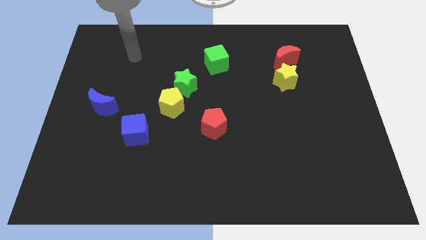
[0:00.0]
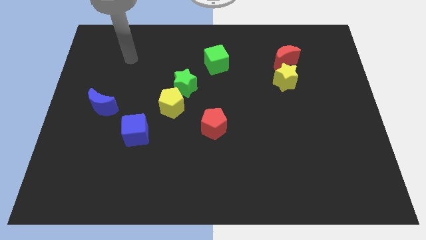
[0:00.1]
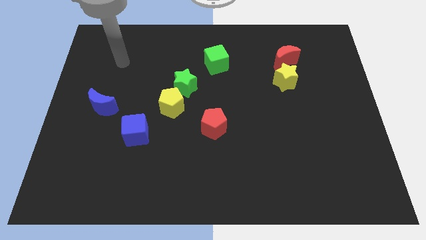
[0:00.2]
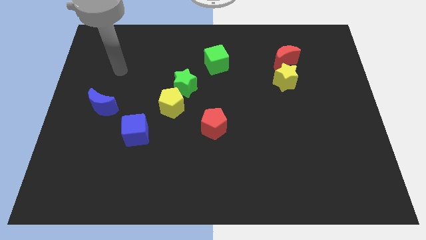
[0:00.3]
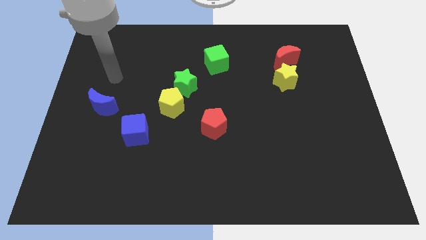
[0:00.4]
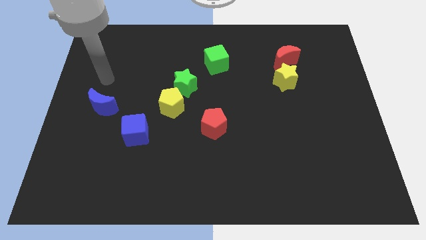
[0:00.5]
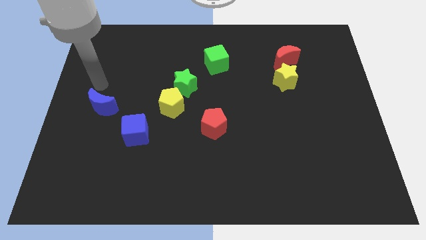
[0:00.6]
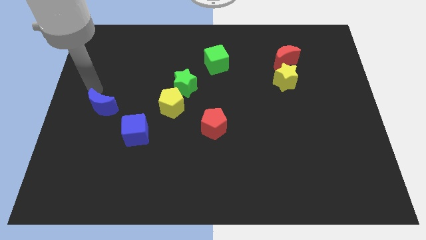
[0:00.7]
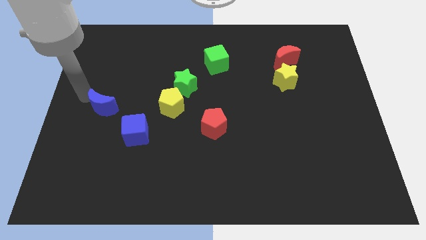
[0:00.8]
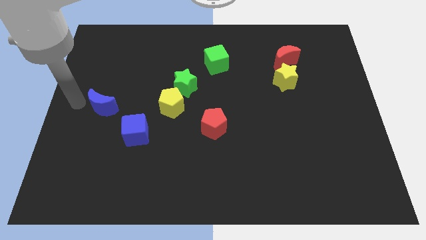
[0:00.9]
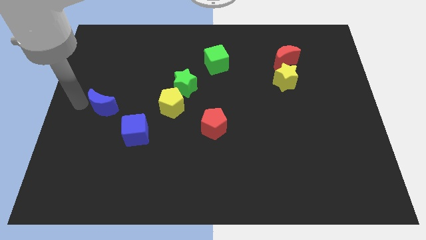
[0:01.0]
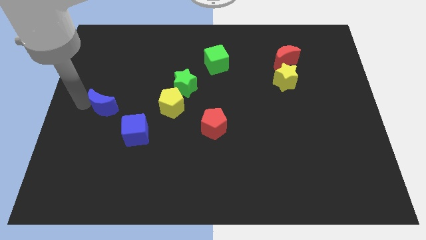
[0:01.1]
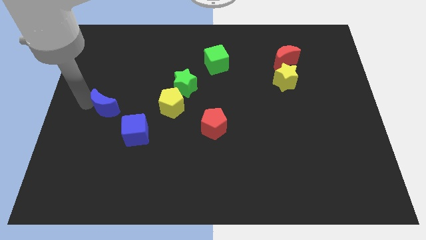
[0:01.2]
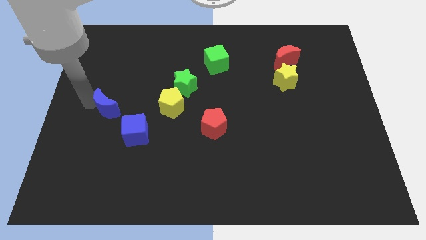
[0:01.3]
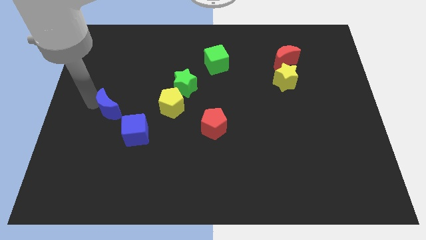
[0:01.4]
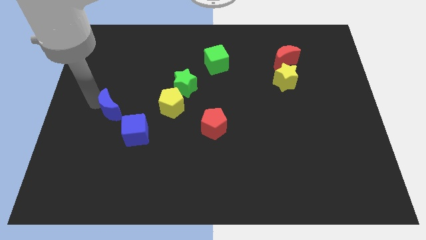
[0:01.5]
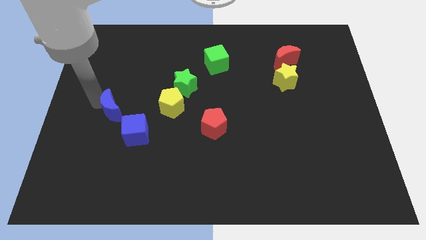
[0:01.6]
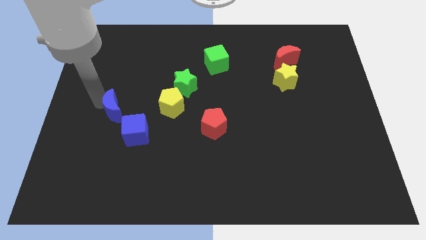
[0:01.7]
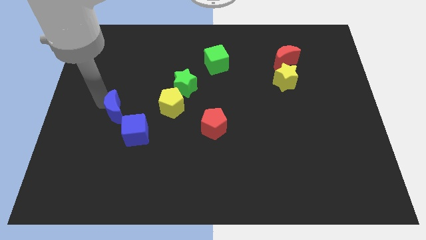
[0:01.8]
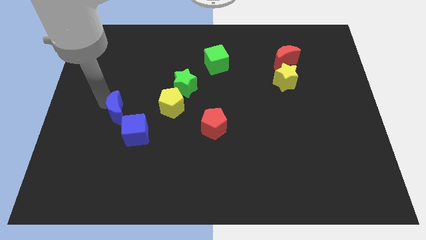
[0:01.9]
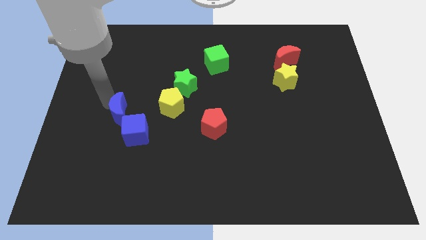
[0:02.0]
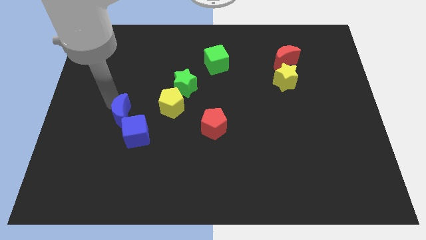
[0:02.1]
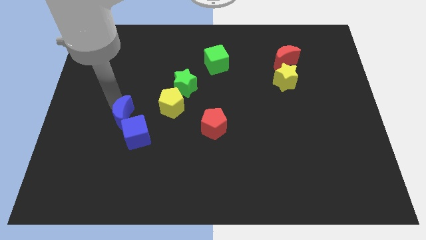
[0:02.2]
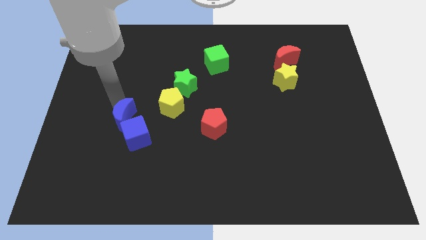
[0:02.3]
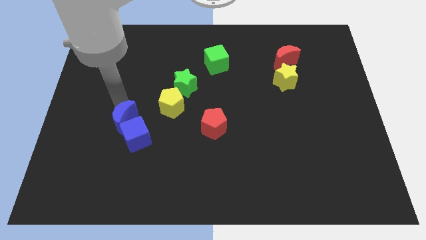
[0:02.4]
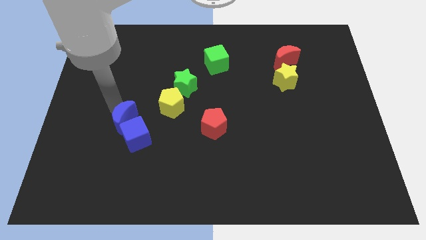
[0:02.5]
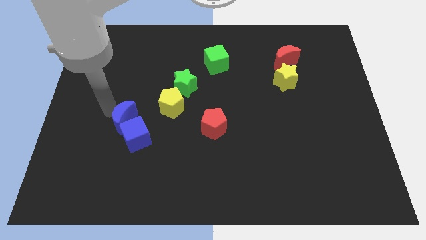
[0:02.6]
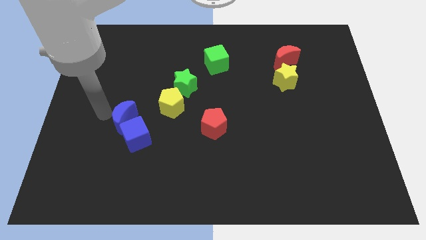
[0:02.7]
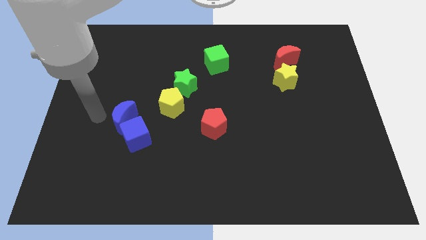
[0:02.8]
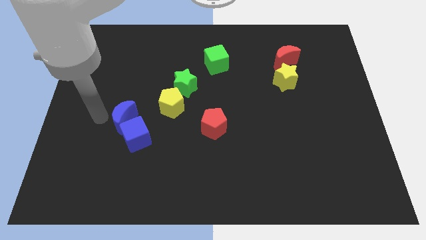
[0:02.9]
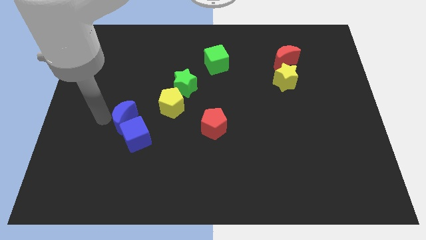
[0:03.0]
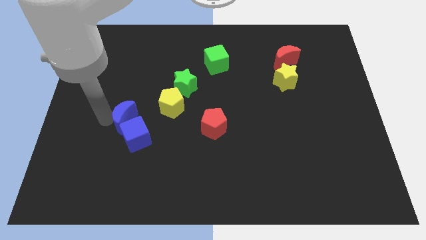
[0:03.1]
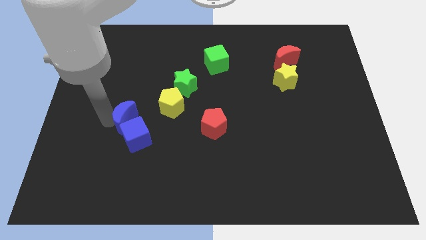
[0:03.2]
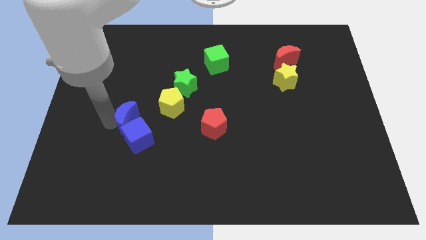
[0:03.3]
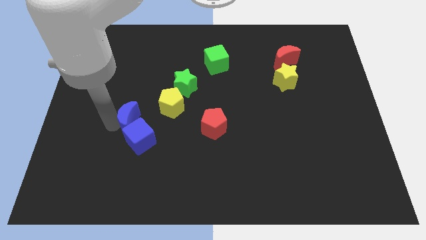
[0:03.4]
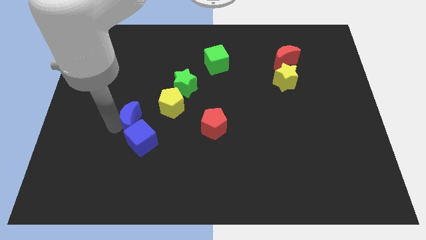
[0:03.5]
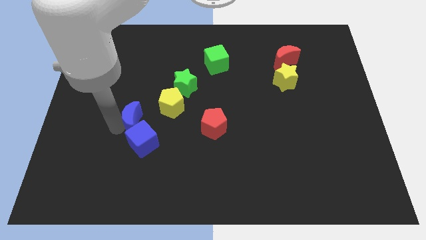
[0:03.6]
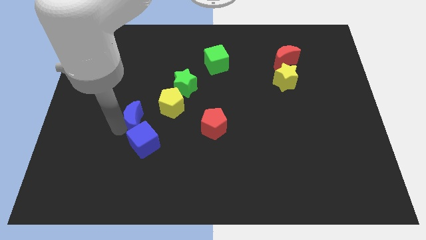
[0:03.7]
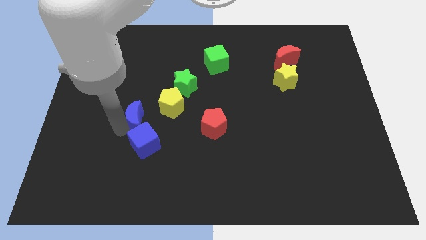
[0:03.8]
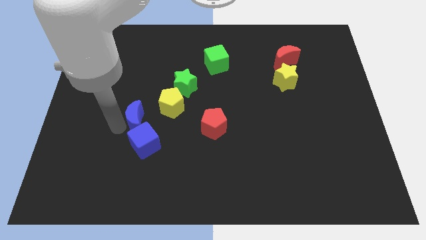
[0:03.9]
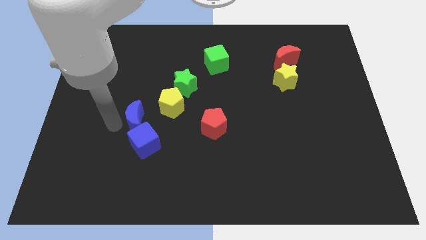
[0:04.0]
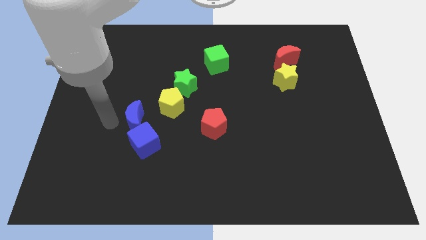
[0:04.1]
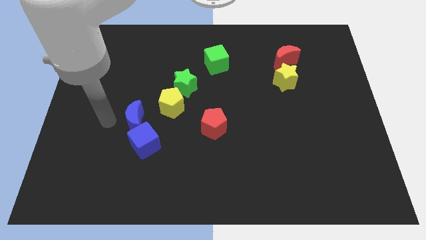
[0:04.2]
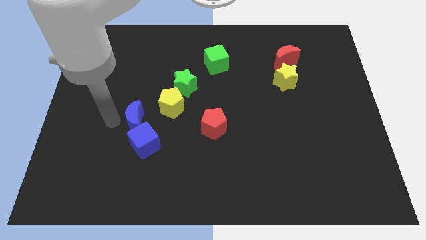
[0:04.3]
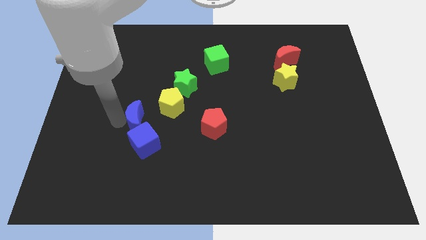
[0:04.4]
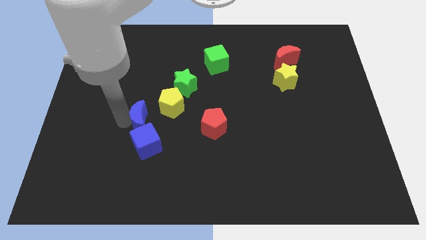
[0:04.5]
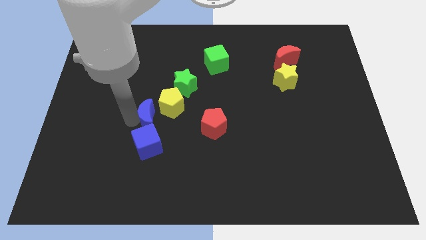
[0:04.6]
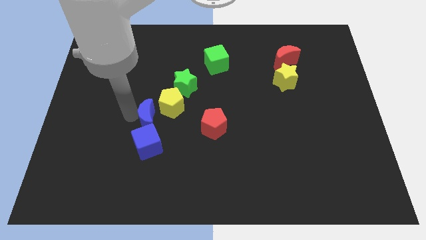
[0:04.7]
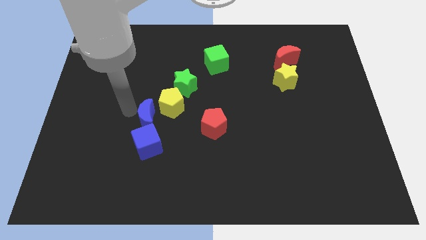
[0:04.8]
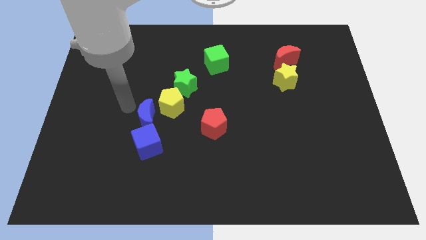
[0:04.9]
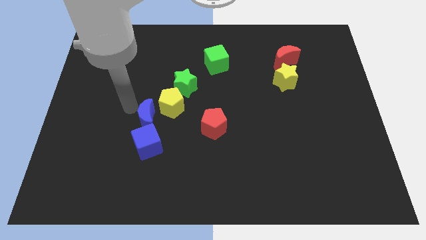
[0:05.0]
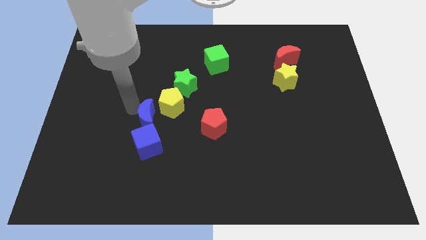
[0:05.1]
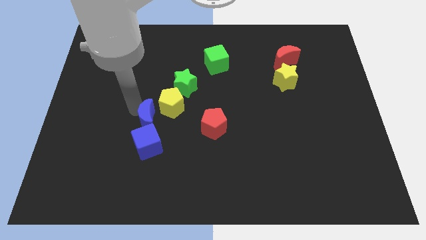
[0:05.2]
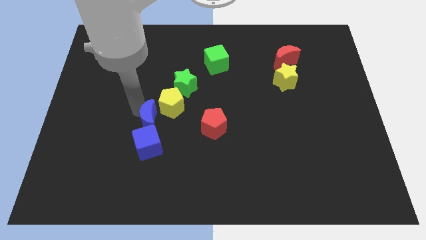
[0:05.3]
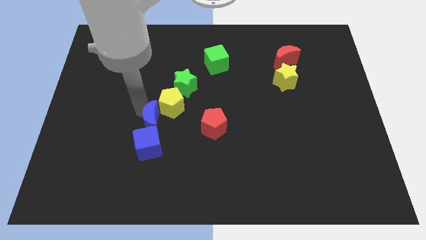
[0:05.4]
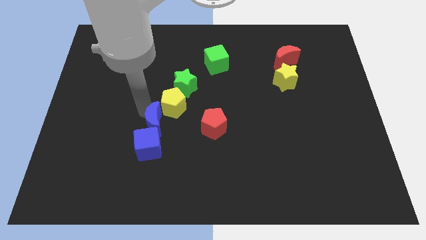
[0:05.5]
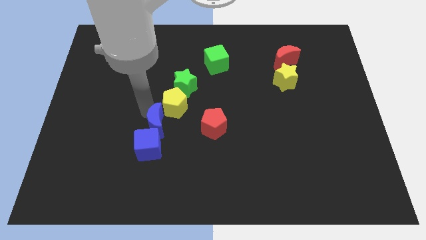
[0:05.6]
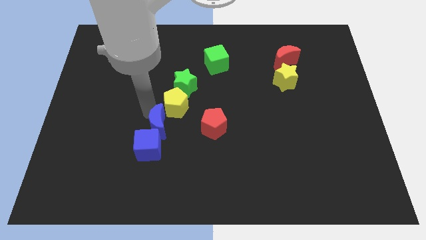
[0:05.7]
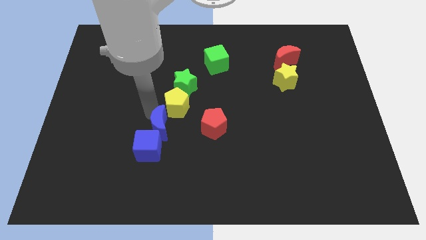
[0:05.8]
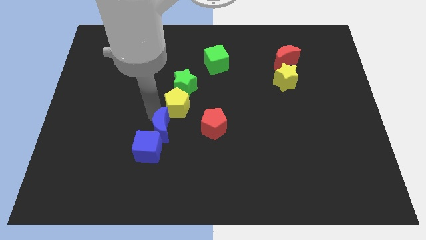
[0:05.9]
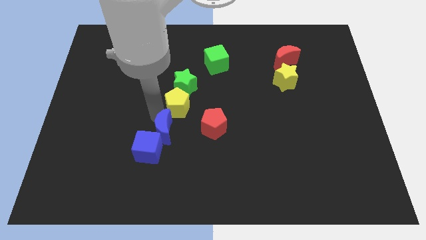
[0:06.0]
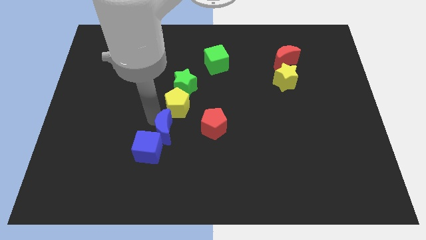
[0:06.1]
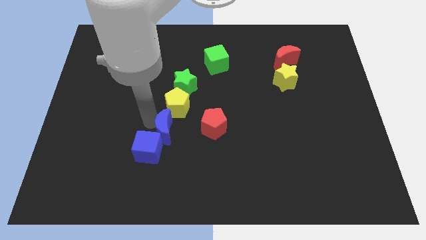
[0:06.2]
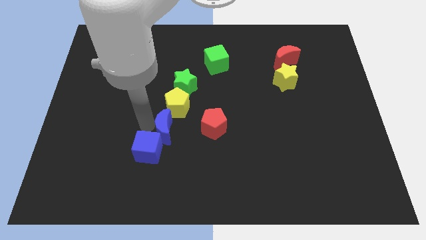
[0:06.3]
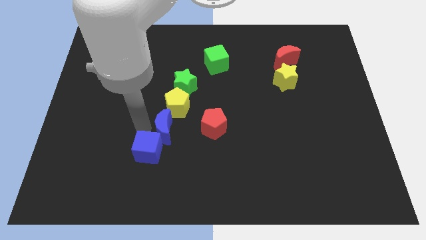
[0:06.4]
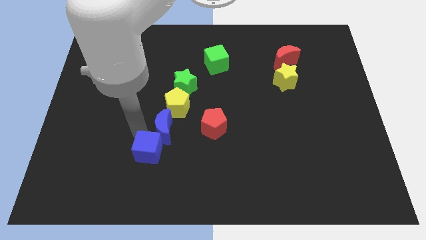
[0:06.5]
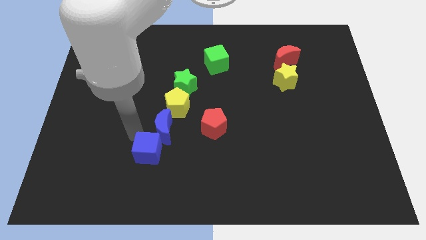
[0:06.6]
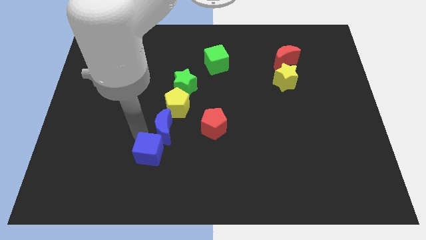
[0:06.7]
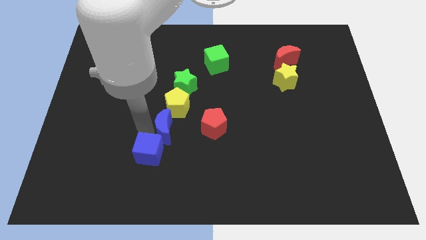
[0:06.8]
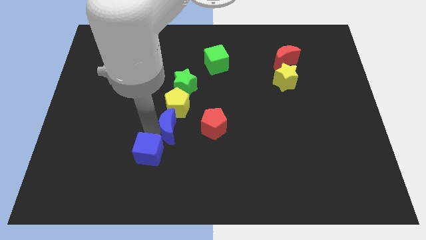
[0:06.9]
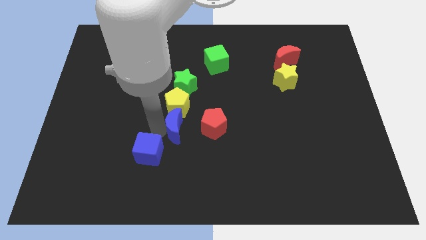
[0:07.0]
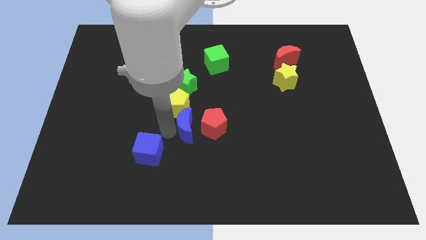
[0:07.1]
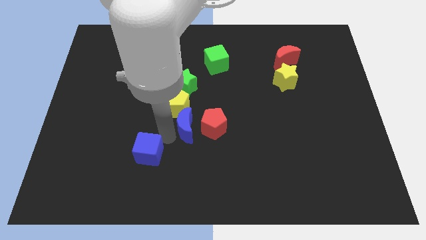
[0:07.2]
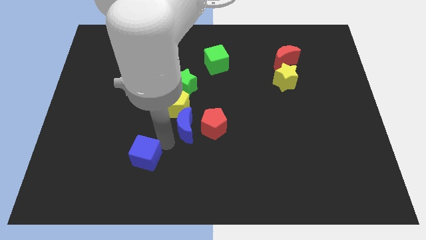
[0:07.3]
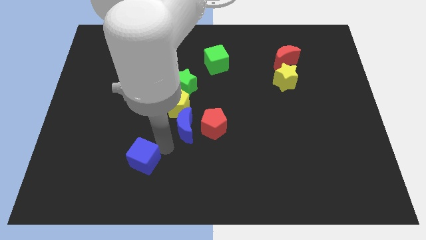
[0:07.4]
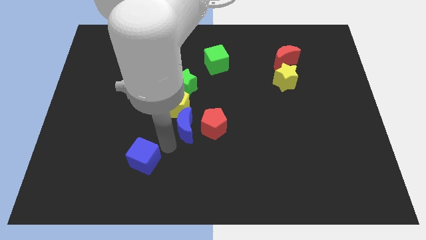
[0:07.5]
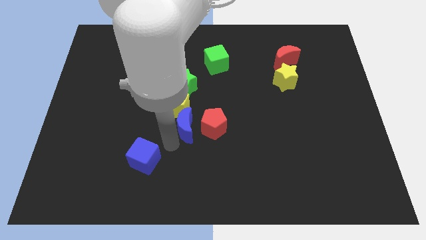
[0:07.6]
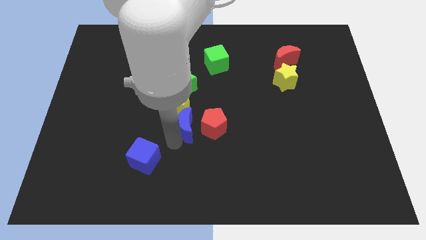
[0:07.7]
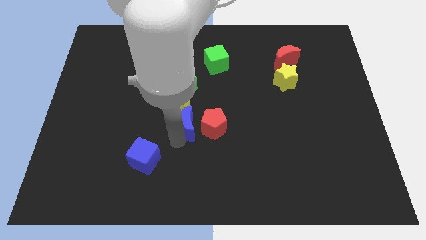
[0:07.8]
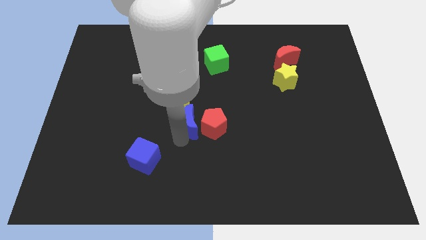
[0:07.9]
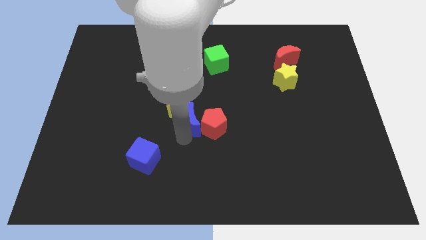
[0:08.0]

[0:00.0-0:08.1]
slide the blue moon right
